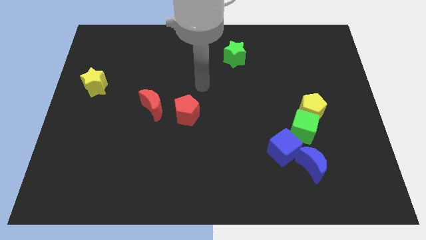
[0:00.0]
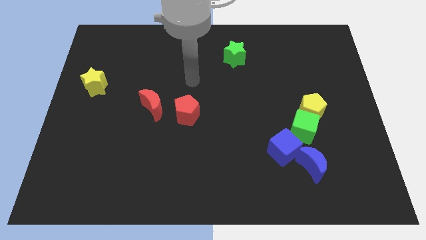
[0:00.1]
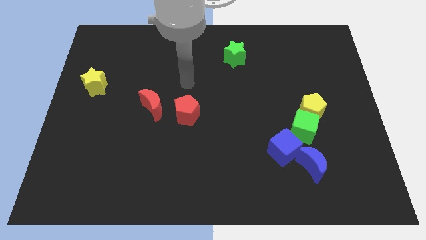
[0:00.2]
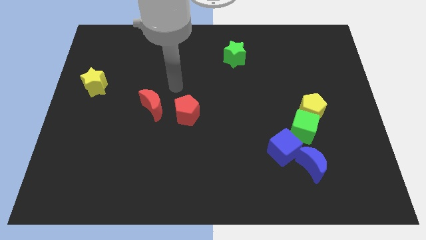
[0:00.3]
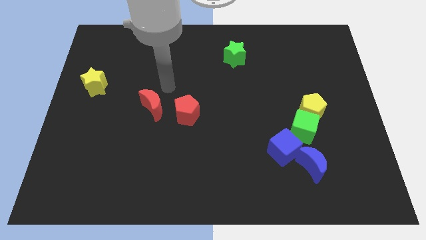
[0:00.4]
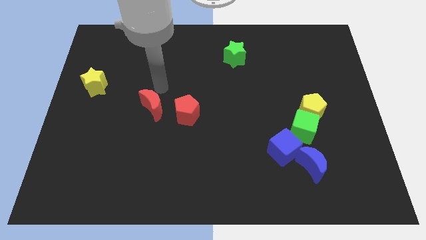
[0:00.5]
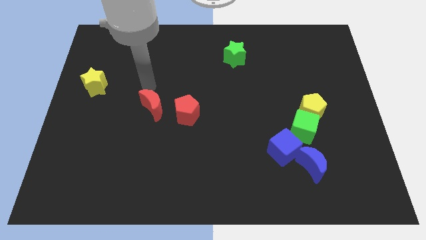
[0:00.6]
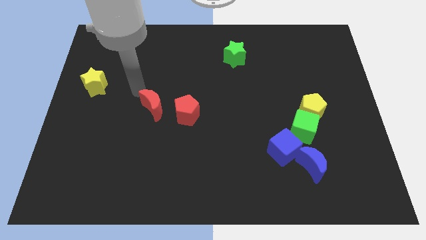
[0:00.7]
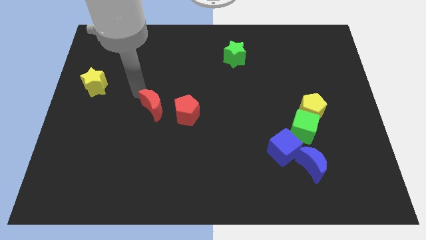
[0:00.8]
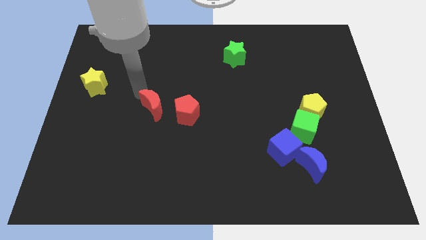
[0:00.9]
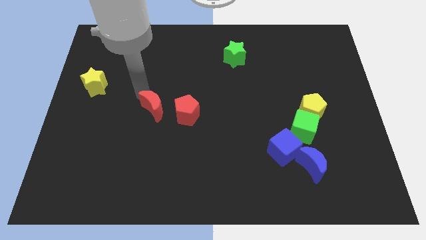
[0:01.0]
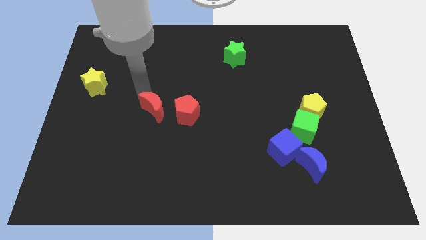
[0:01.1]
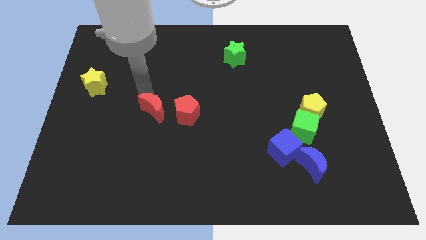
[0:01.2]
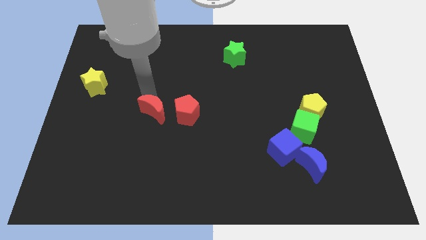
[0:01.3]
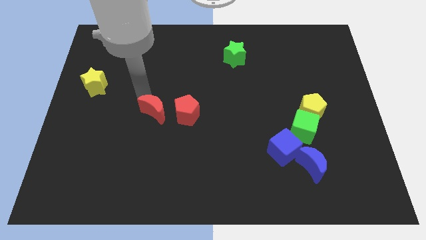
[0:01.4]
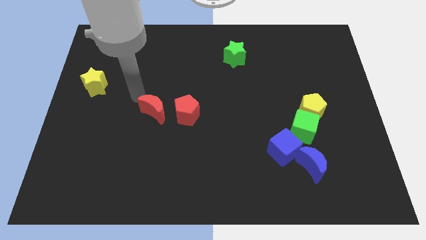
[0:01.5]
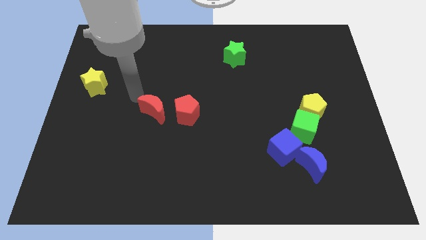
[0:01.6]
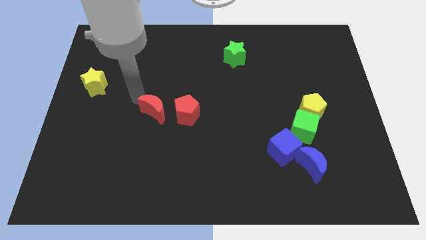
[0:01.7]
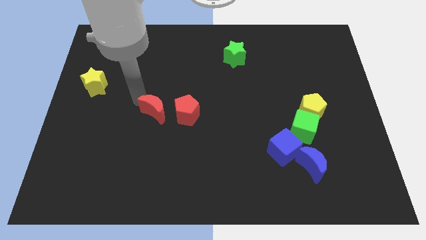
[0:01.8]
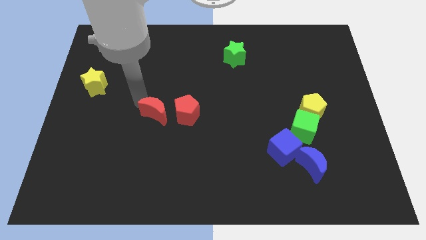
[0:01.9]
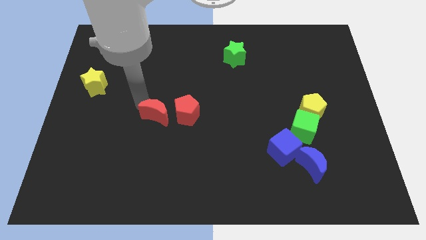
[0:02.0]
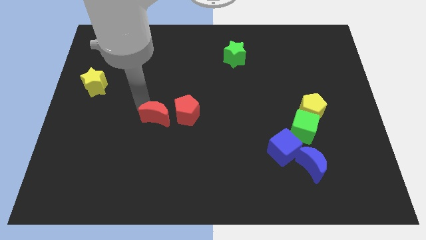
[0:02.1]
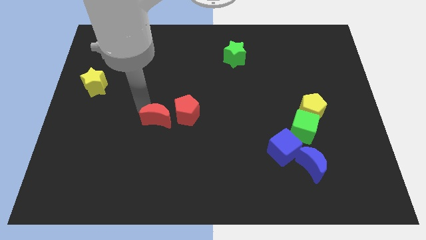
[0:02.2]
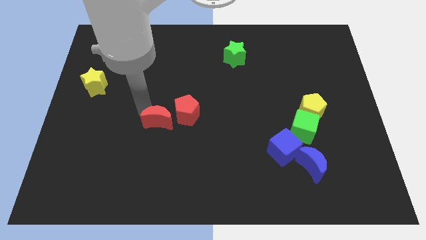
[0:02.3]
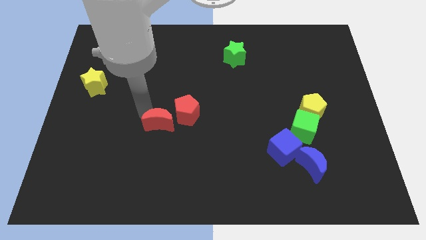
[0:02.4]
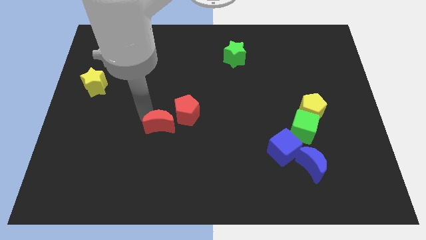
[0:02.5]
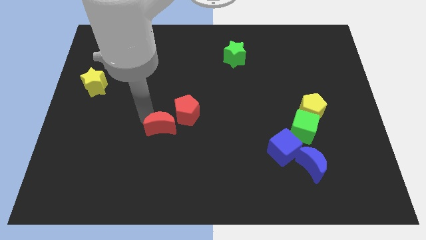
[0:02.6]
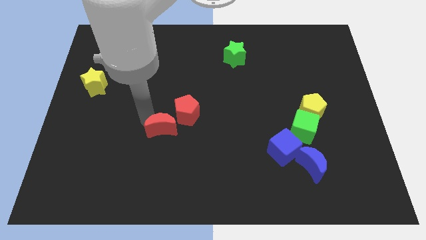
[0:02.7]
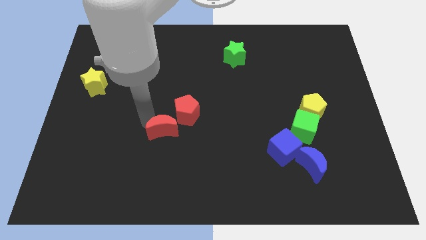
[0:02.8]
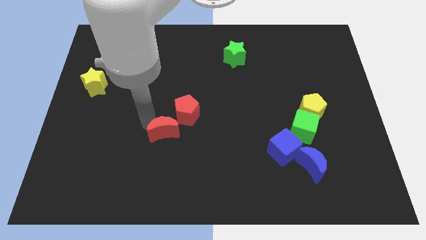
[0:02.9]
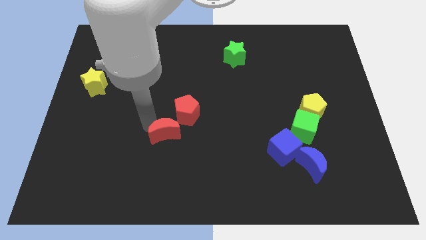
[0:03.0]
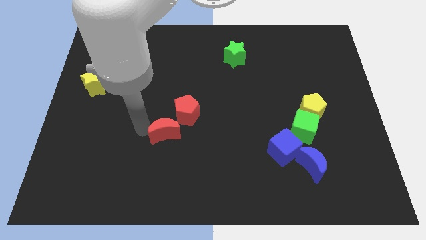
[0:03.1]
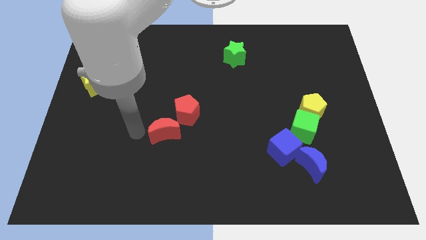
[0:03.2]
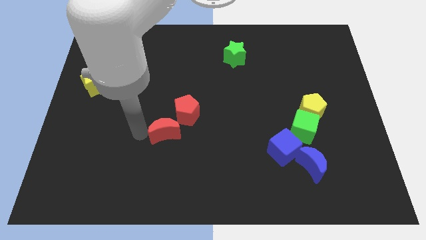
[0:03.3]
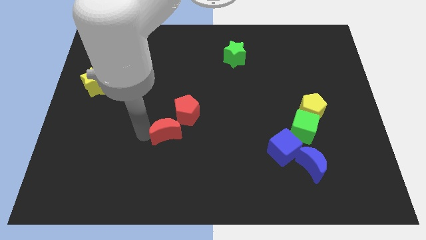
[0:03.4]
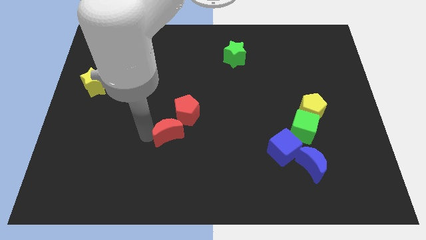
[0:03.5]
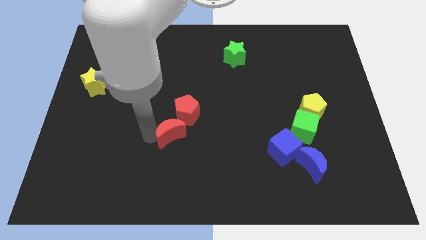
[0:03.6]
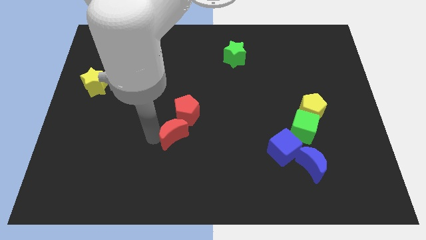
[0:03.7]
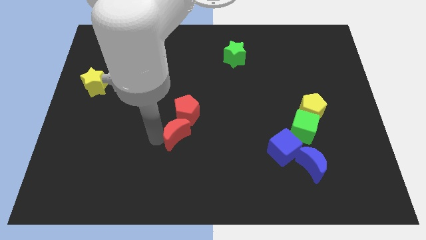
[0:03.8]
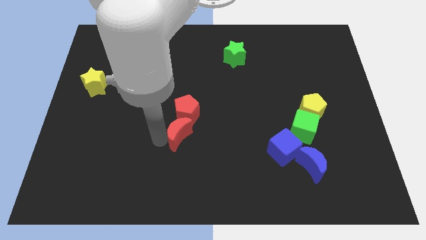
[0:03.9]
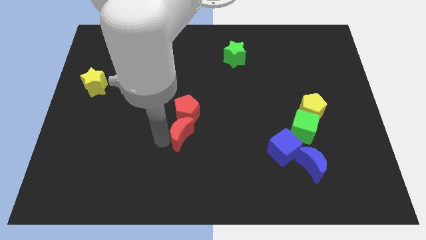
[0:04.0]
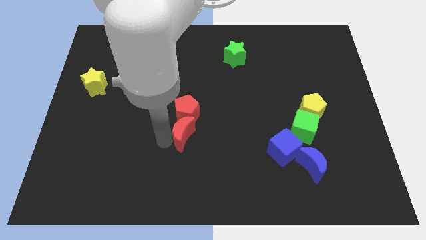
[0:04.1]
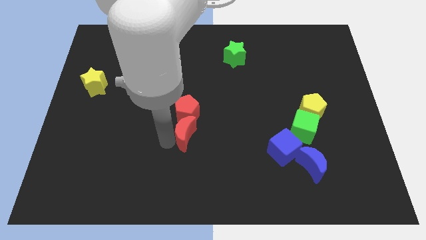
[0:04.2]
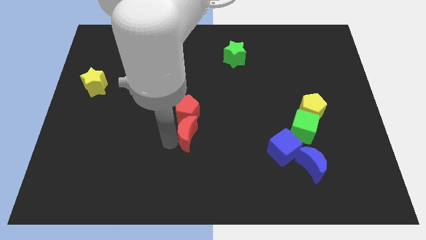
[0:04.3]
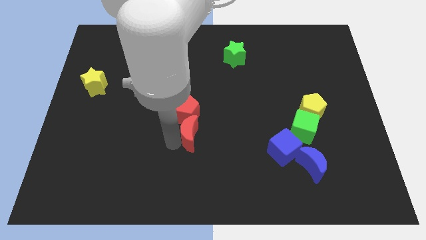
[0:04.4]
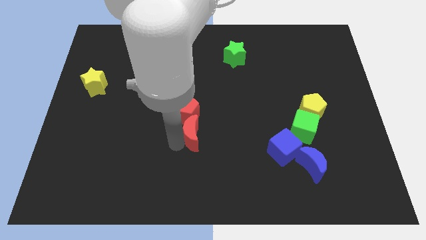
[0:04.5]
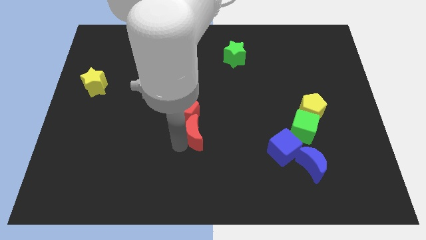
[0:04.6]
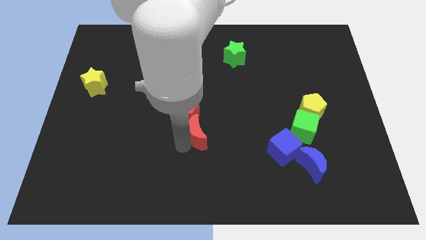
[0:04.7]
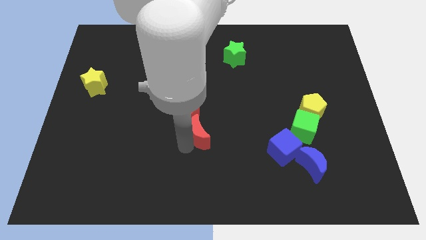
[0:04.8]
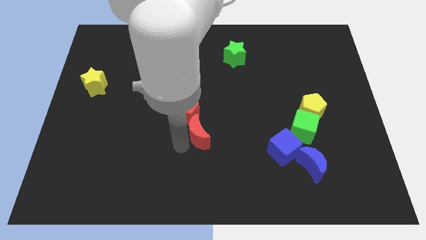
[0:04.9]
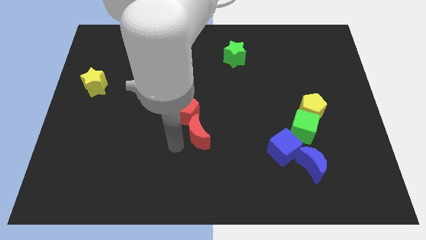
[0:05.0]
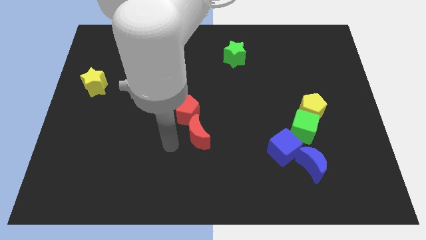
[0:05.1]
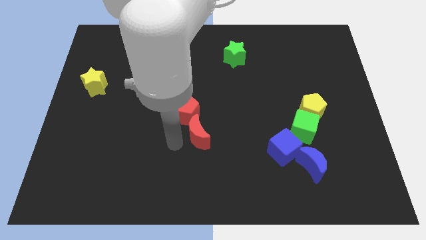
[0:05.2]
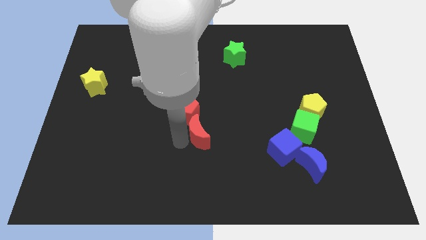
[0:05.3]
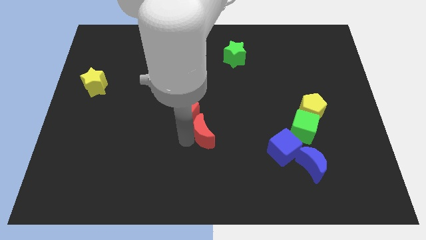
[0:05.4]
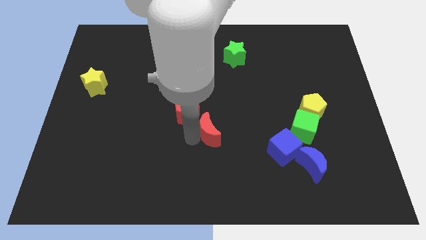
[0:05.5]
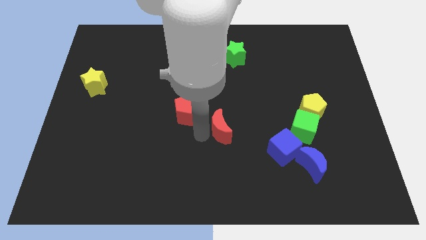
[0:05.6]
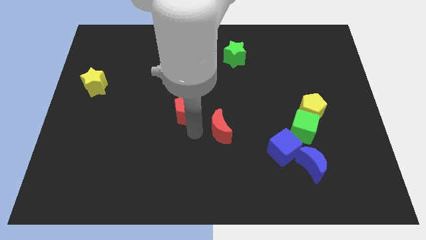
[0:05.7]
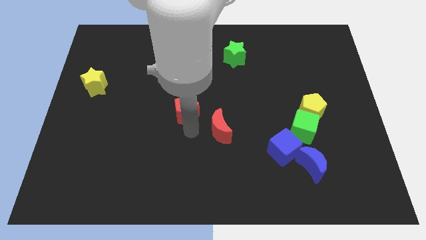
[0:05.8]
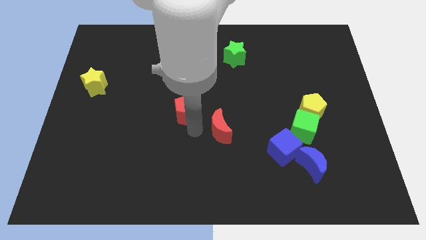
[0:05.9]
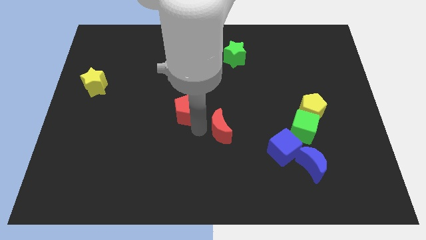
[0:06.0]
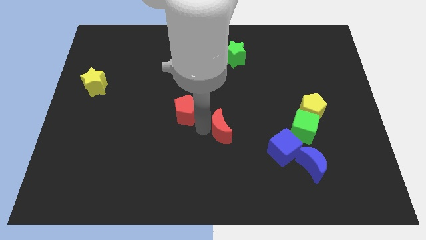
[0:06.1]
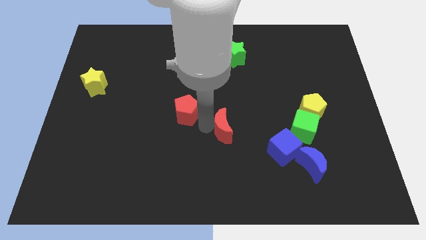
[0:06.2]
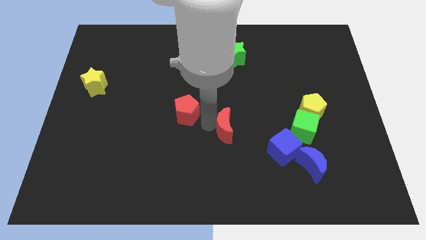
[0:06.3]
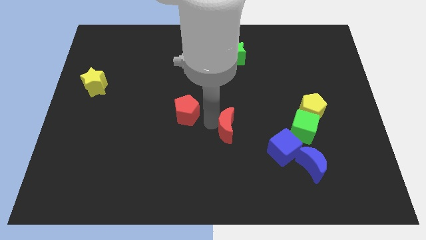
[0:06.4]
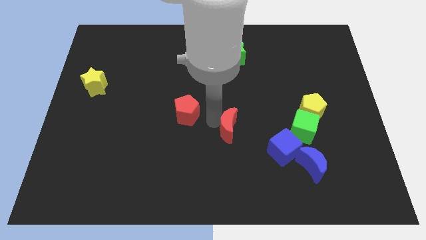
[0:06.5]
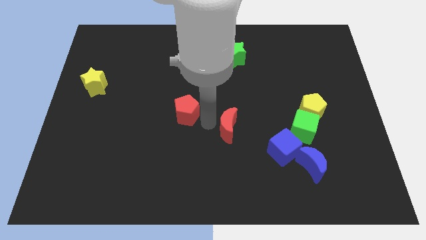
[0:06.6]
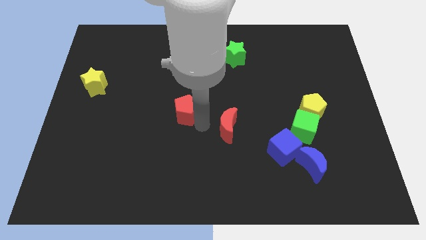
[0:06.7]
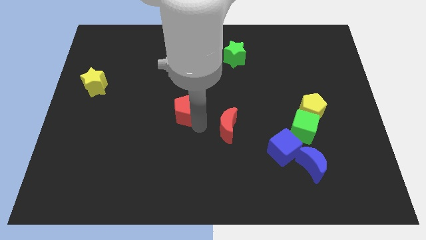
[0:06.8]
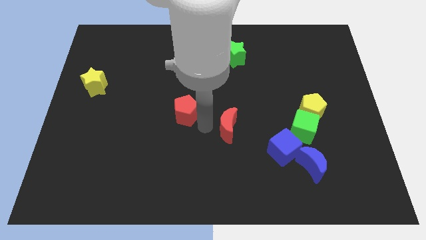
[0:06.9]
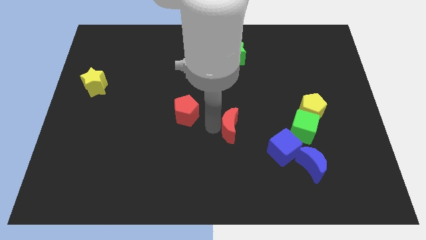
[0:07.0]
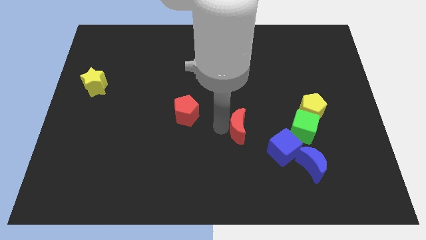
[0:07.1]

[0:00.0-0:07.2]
put the red moon to the left of the green cube
